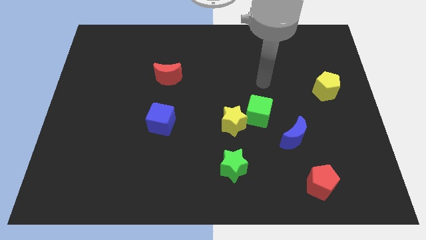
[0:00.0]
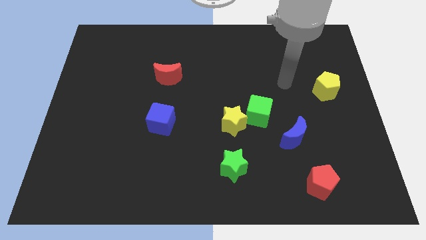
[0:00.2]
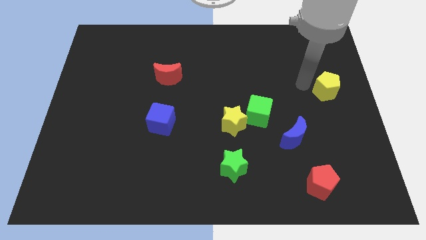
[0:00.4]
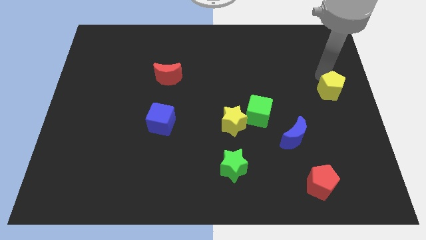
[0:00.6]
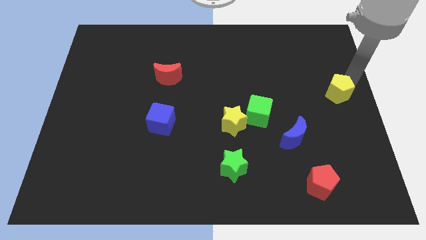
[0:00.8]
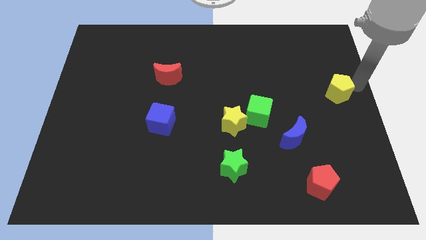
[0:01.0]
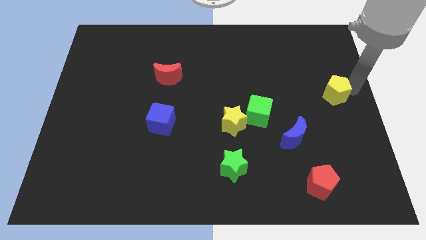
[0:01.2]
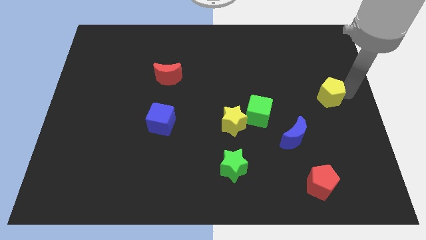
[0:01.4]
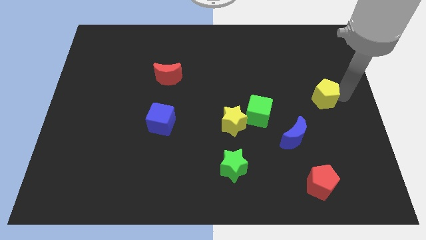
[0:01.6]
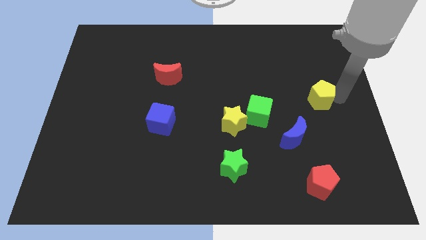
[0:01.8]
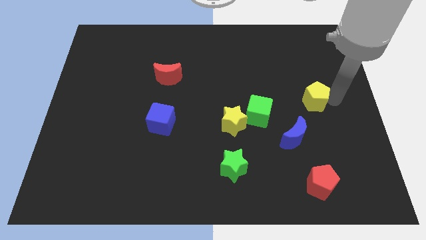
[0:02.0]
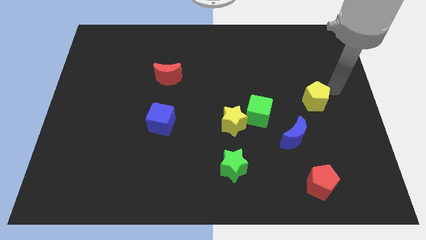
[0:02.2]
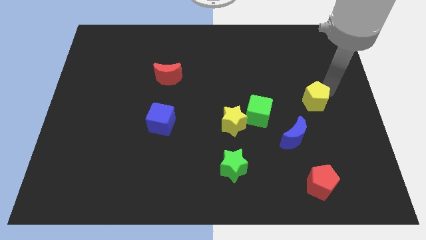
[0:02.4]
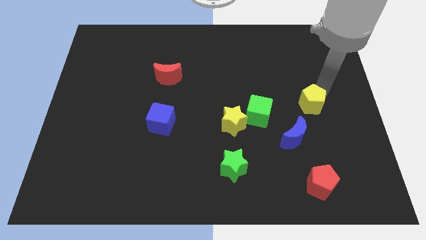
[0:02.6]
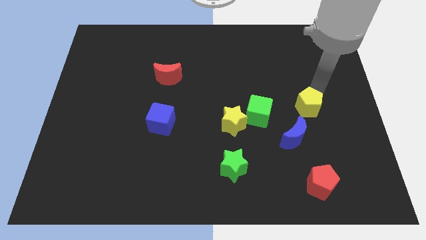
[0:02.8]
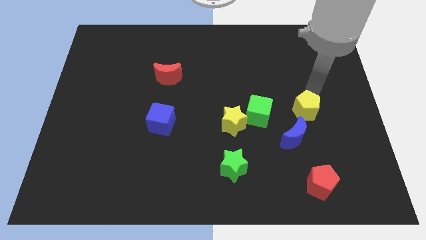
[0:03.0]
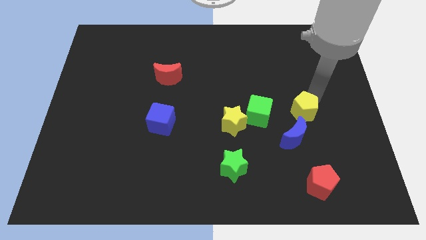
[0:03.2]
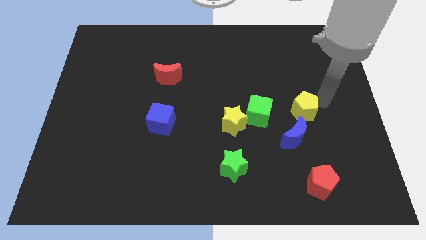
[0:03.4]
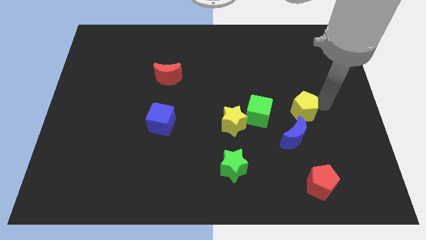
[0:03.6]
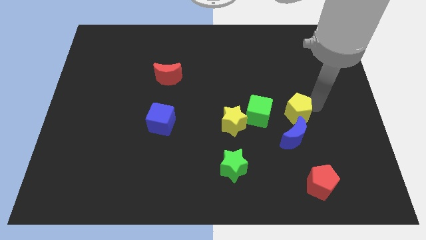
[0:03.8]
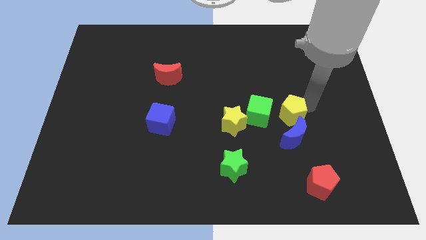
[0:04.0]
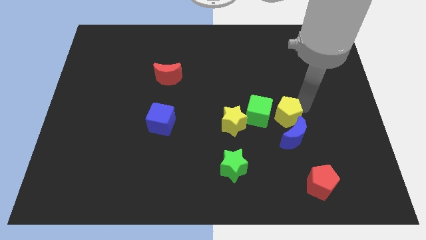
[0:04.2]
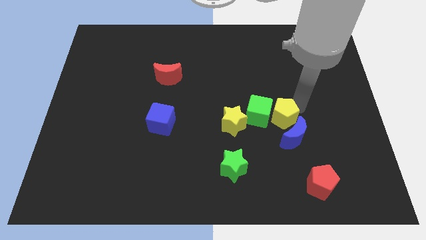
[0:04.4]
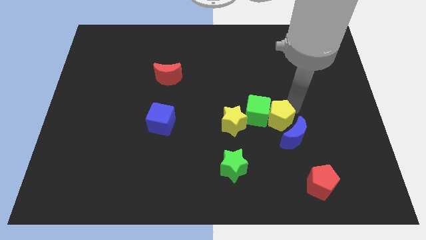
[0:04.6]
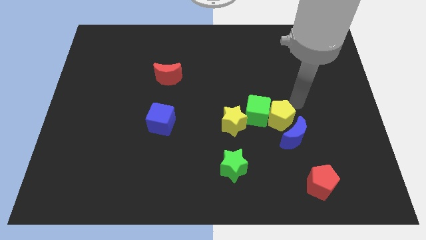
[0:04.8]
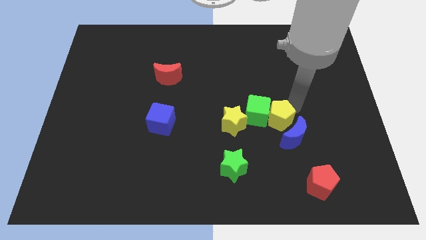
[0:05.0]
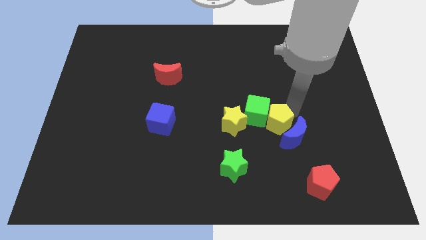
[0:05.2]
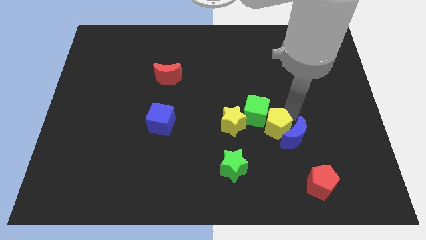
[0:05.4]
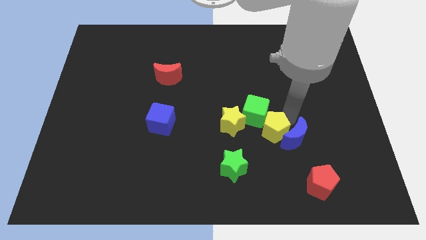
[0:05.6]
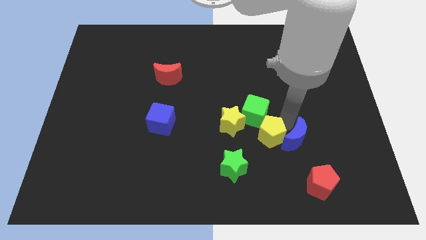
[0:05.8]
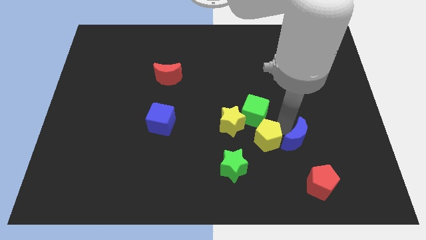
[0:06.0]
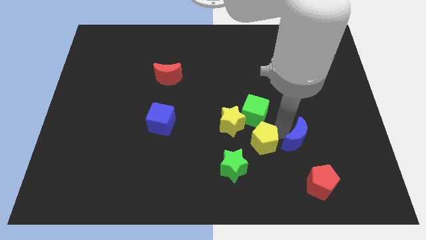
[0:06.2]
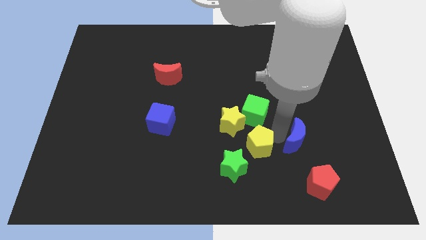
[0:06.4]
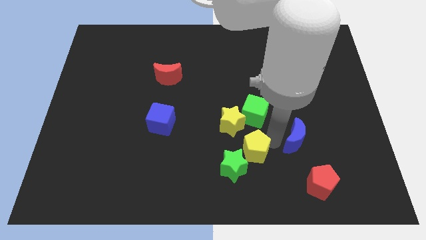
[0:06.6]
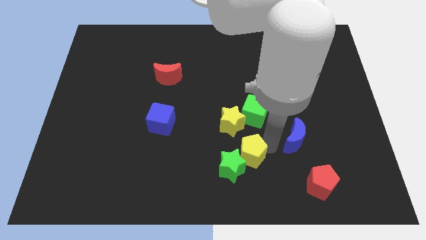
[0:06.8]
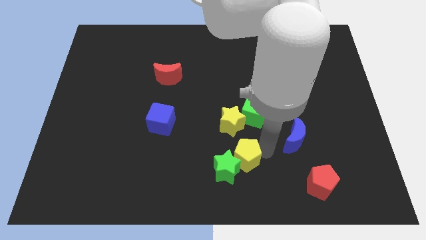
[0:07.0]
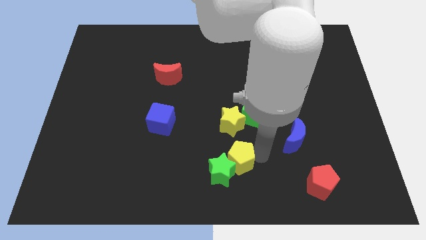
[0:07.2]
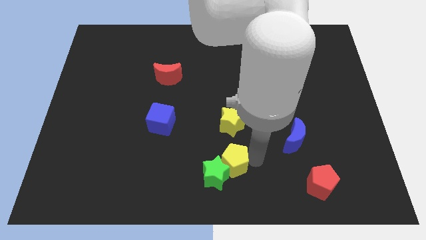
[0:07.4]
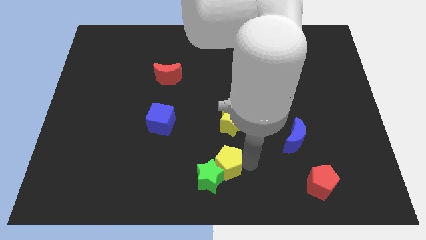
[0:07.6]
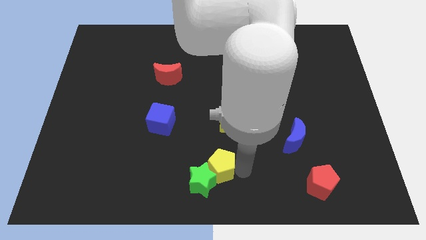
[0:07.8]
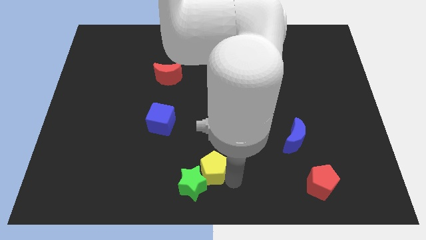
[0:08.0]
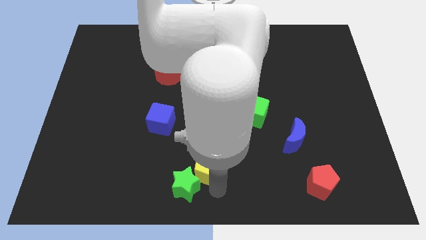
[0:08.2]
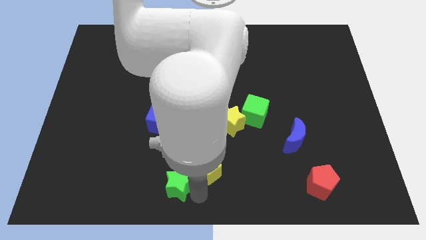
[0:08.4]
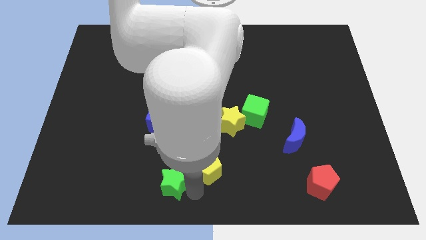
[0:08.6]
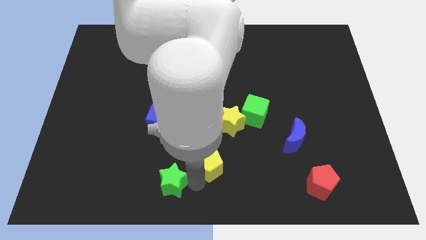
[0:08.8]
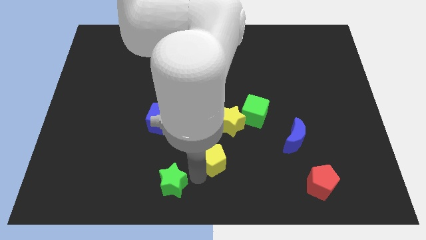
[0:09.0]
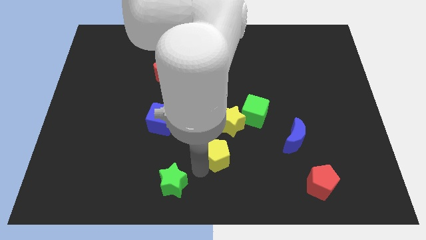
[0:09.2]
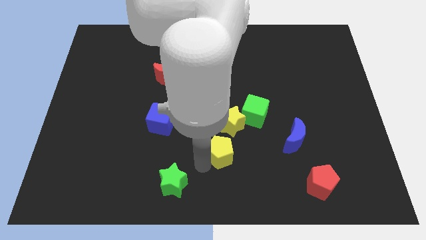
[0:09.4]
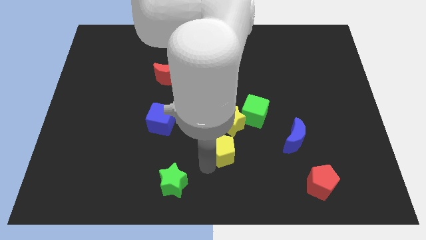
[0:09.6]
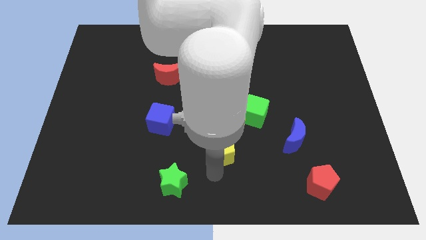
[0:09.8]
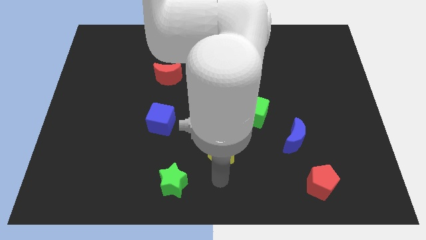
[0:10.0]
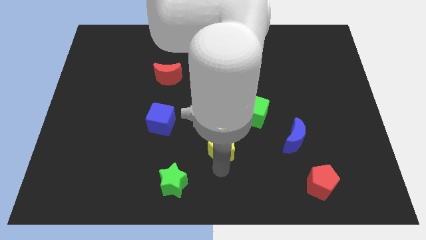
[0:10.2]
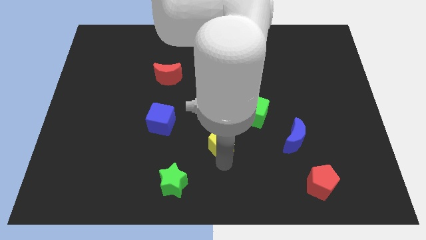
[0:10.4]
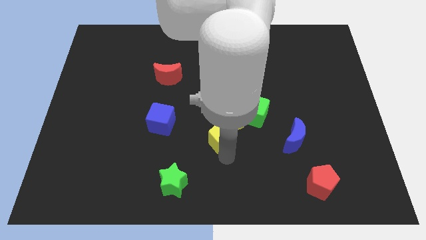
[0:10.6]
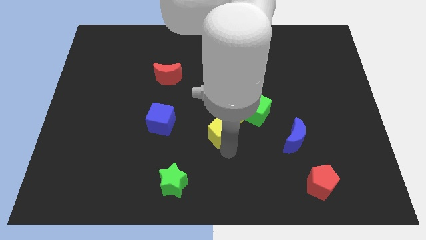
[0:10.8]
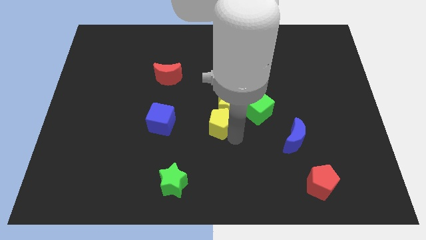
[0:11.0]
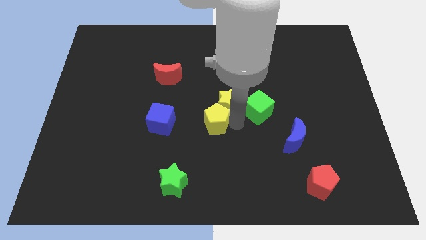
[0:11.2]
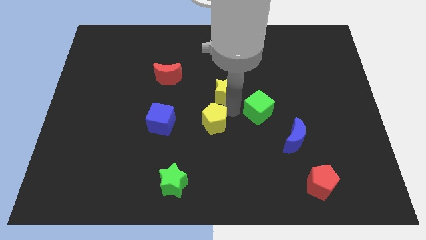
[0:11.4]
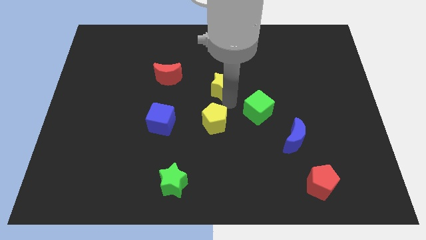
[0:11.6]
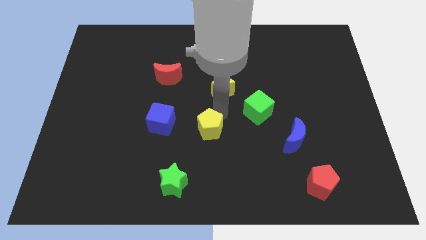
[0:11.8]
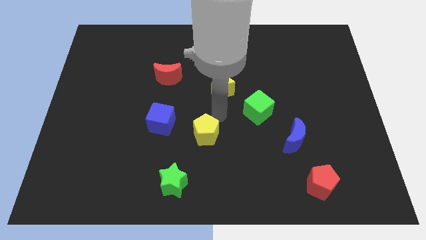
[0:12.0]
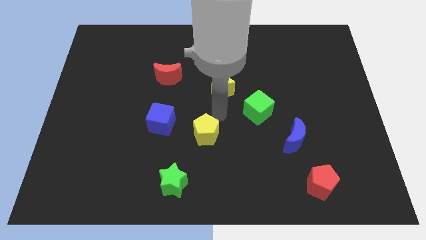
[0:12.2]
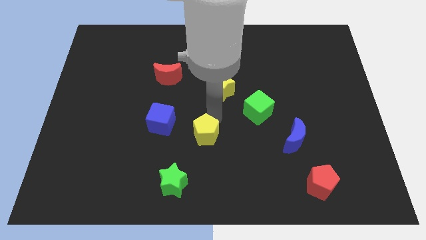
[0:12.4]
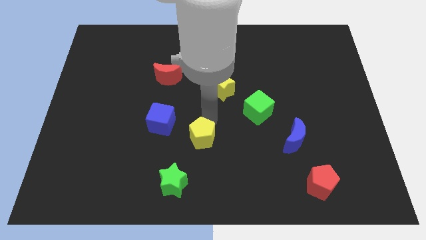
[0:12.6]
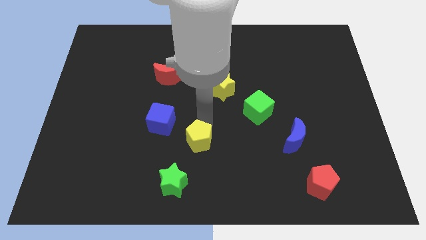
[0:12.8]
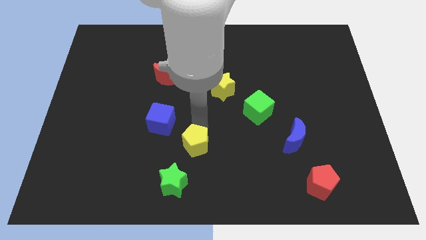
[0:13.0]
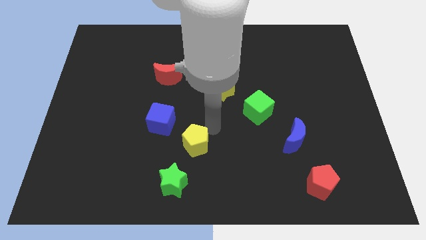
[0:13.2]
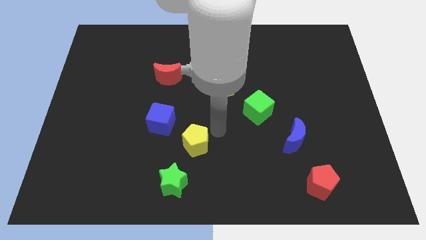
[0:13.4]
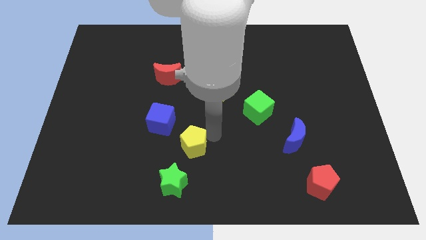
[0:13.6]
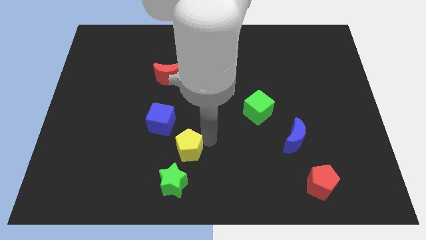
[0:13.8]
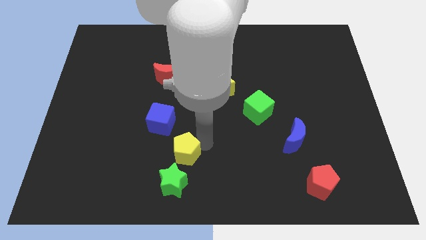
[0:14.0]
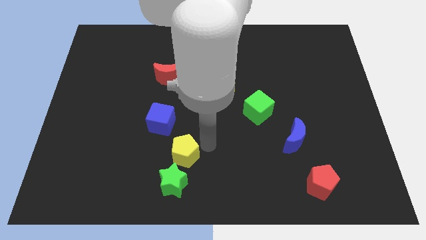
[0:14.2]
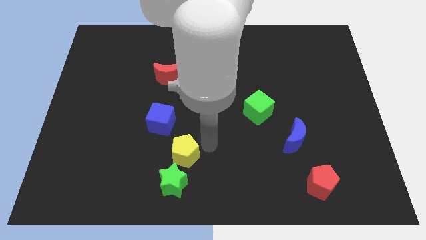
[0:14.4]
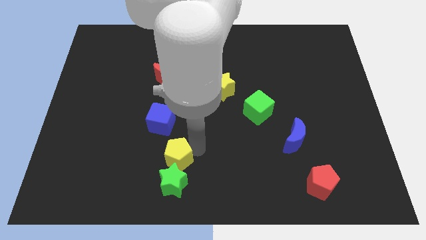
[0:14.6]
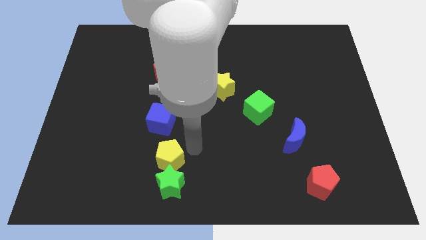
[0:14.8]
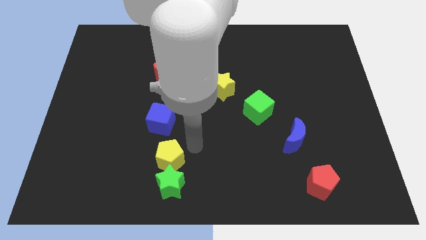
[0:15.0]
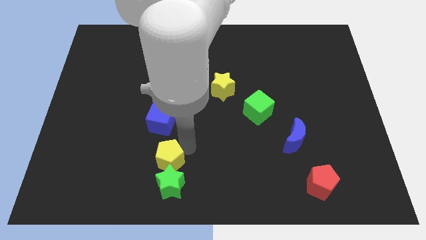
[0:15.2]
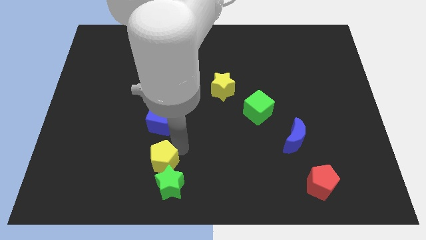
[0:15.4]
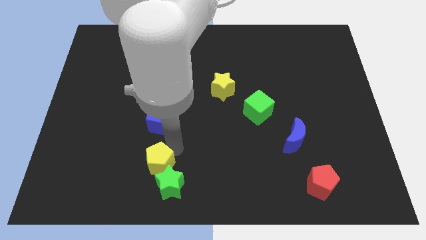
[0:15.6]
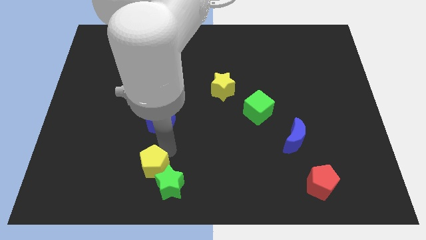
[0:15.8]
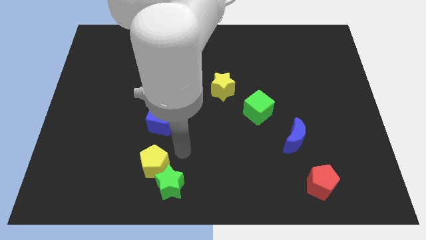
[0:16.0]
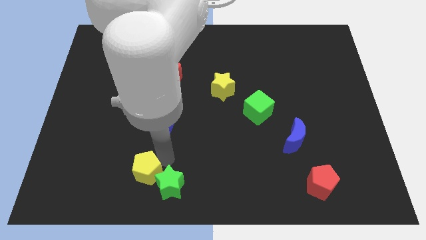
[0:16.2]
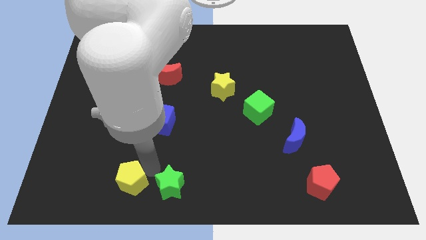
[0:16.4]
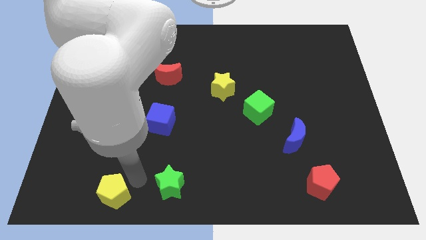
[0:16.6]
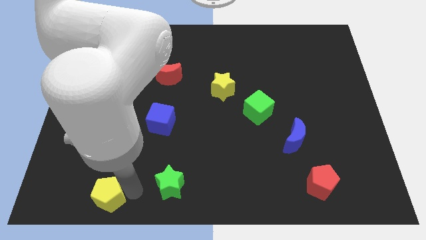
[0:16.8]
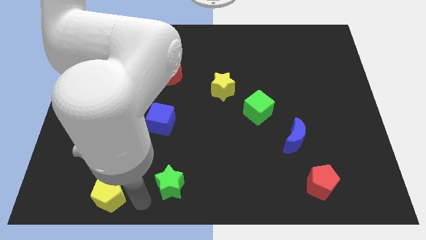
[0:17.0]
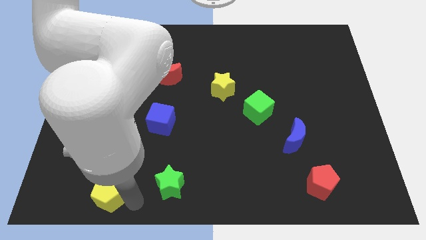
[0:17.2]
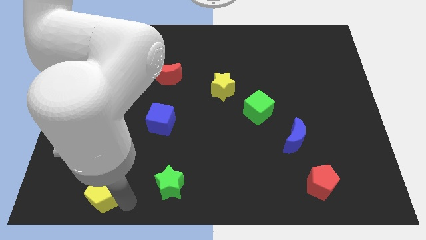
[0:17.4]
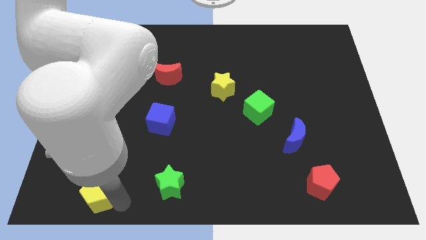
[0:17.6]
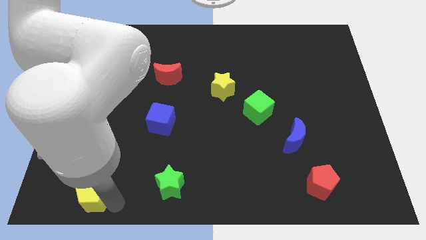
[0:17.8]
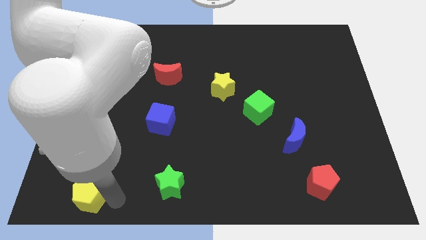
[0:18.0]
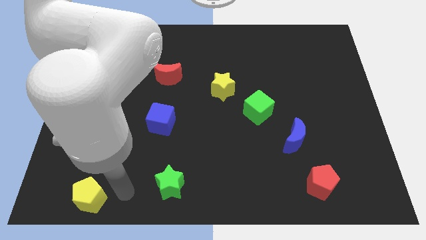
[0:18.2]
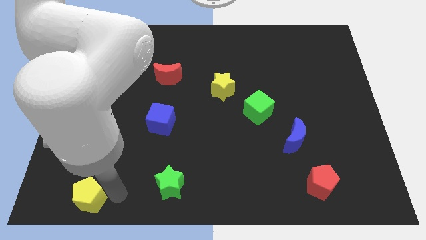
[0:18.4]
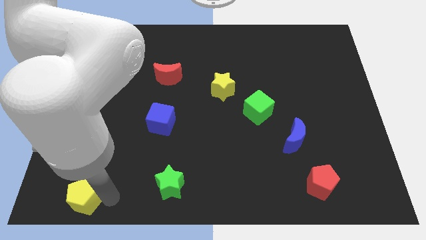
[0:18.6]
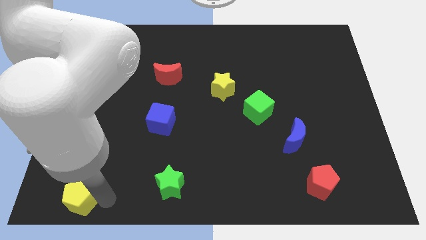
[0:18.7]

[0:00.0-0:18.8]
push the yellow pentagon to the lower left corner
